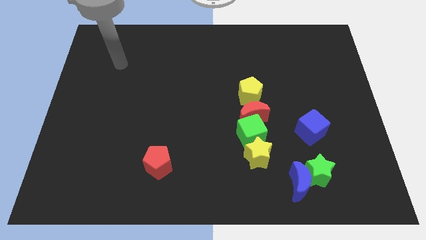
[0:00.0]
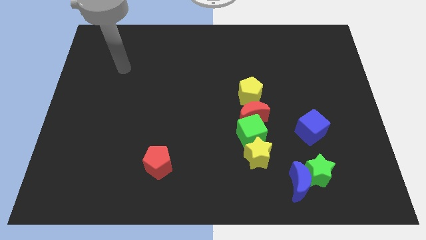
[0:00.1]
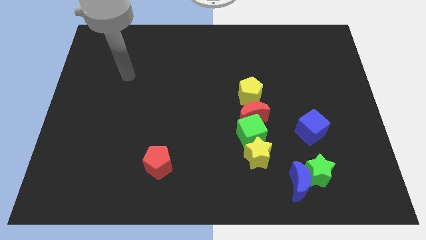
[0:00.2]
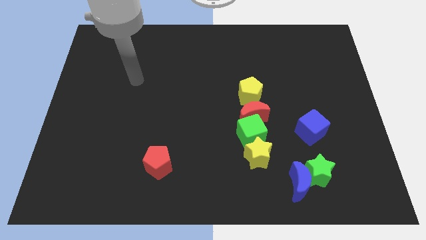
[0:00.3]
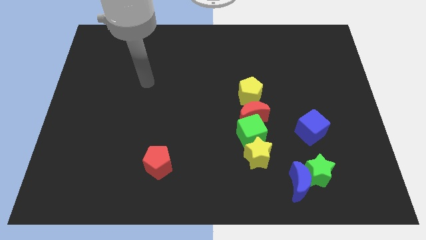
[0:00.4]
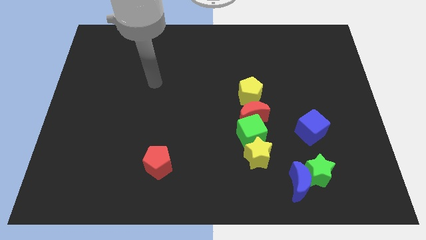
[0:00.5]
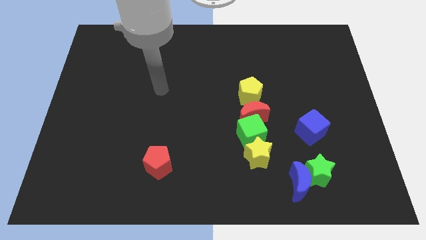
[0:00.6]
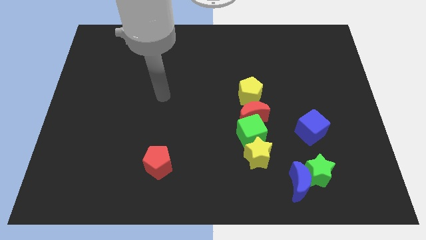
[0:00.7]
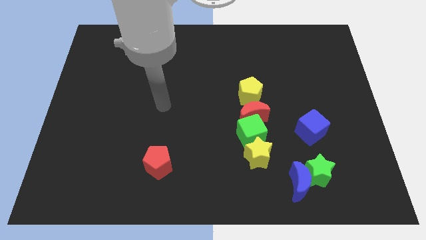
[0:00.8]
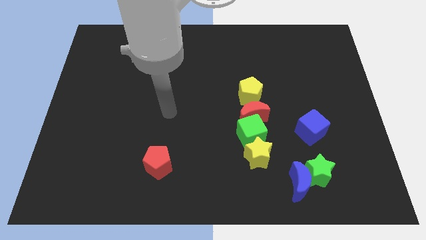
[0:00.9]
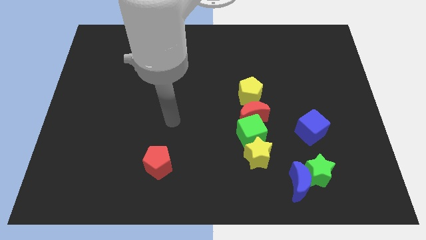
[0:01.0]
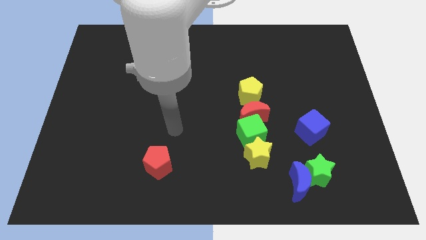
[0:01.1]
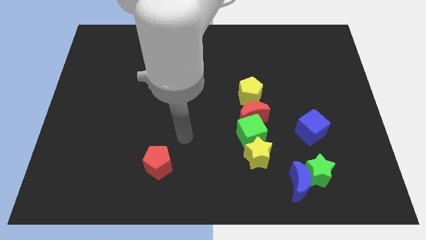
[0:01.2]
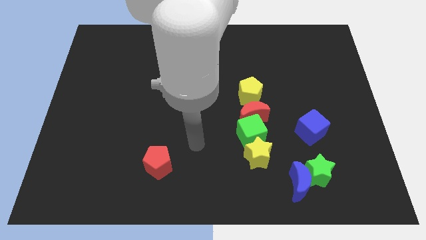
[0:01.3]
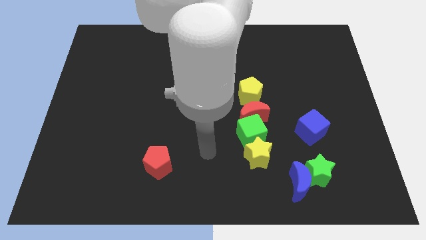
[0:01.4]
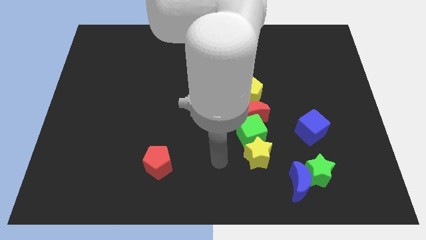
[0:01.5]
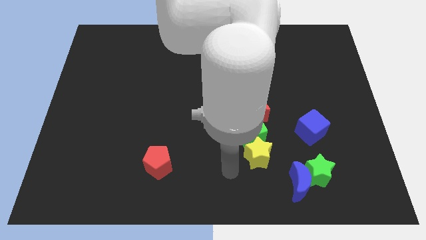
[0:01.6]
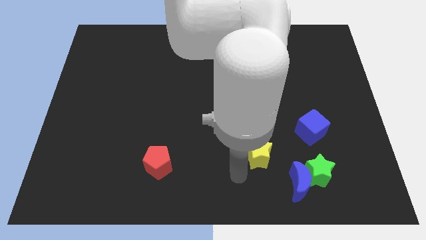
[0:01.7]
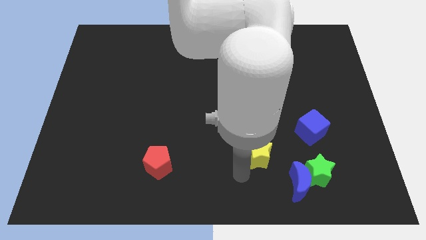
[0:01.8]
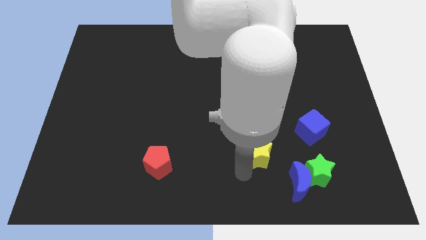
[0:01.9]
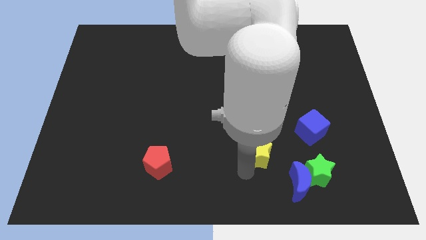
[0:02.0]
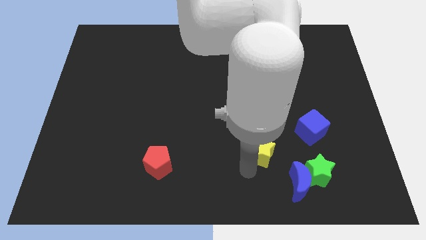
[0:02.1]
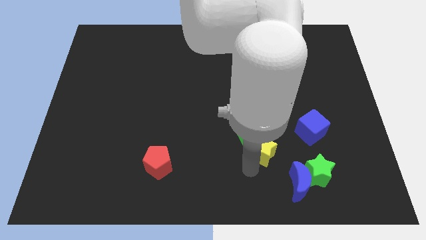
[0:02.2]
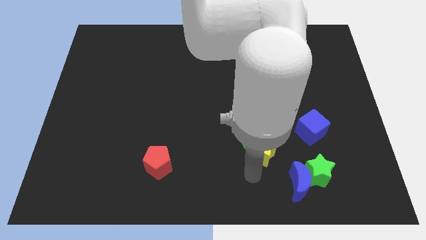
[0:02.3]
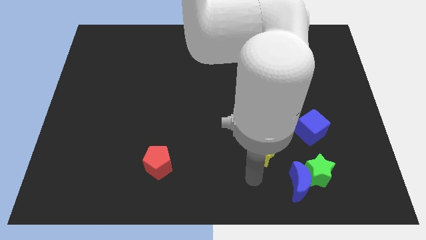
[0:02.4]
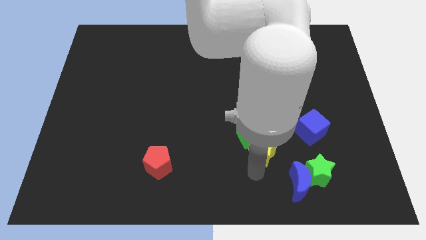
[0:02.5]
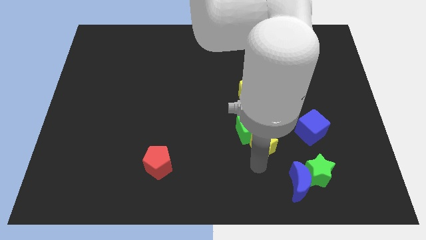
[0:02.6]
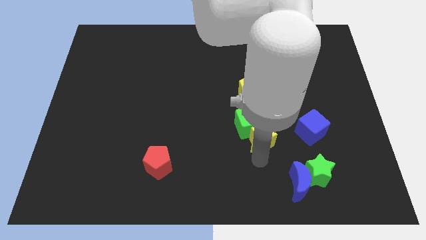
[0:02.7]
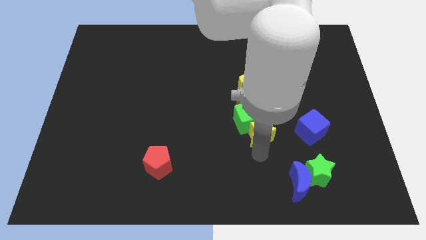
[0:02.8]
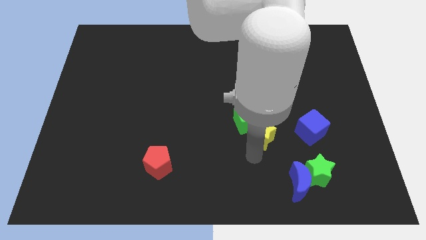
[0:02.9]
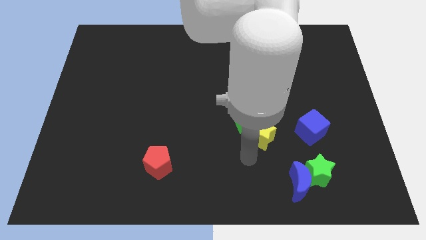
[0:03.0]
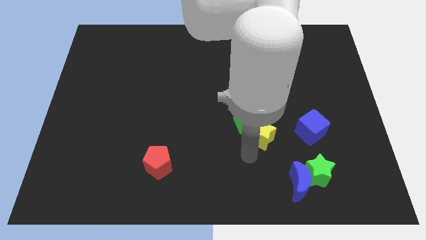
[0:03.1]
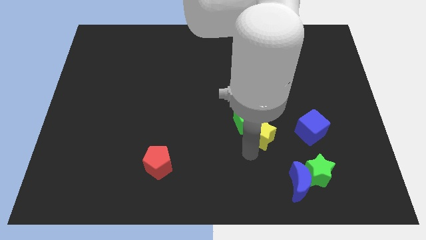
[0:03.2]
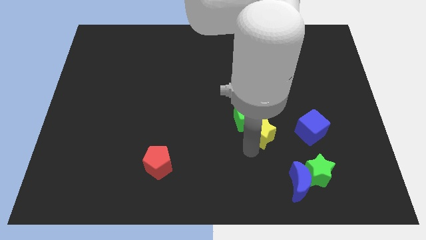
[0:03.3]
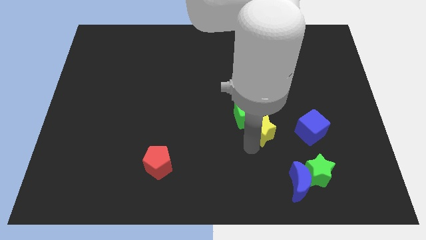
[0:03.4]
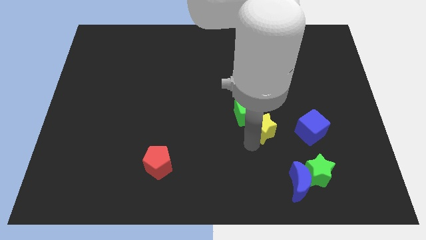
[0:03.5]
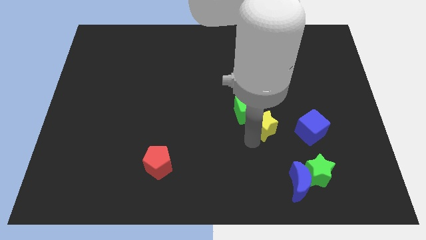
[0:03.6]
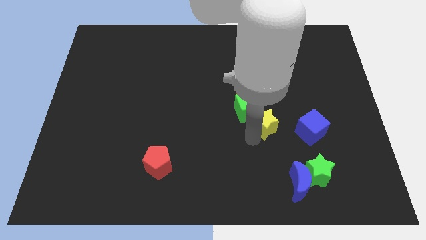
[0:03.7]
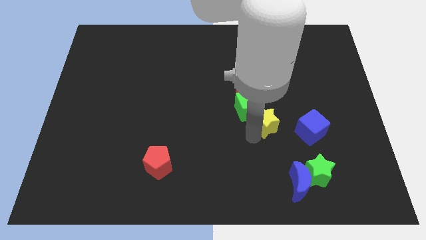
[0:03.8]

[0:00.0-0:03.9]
move the yellow star slightly up and to the right diagonally

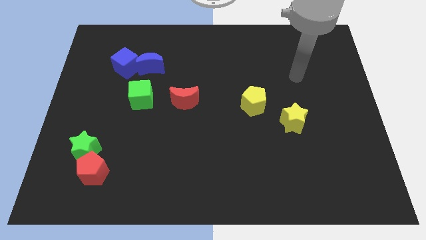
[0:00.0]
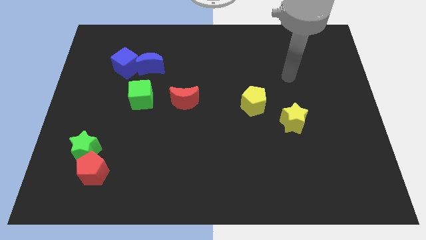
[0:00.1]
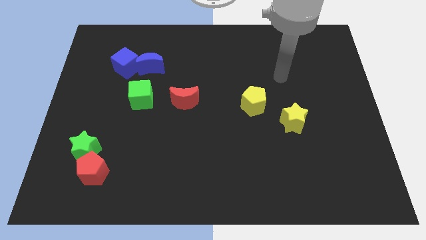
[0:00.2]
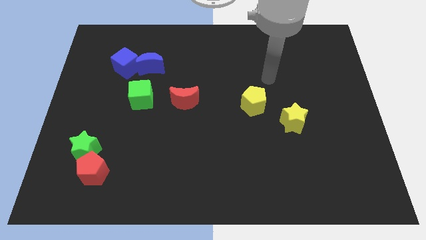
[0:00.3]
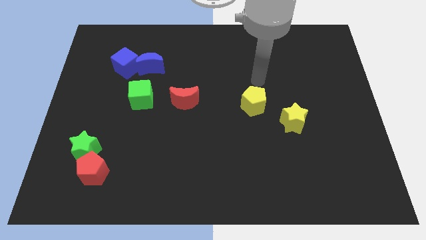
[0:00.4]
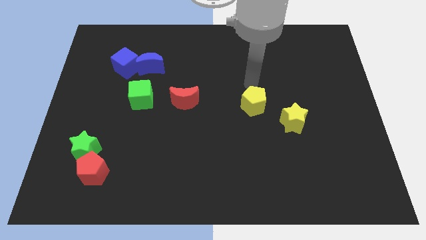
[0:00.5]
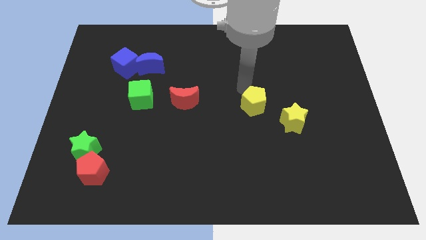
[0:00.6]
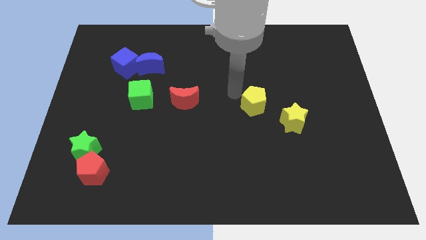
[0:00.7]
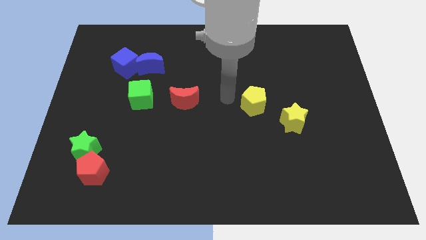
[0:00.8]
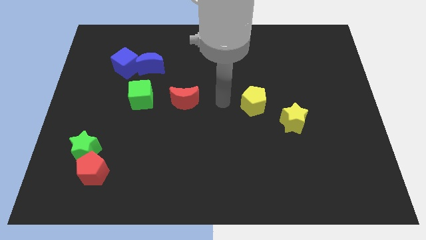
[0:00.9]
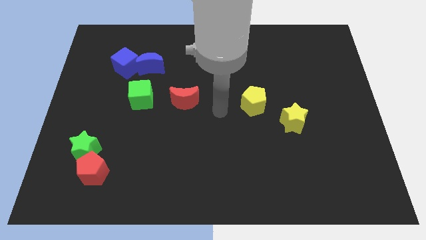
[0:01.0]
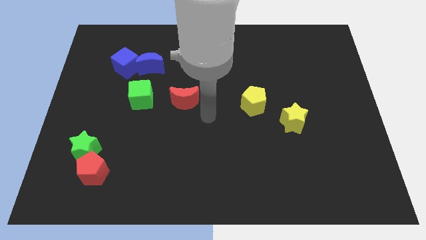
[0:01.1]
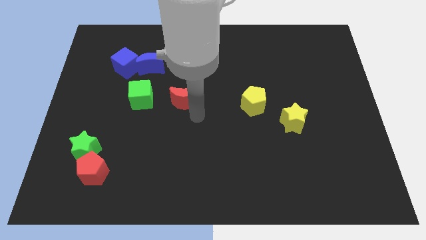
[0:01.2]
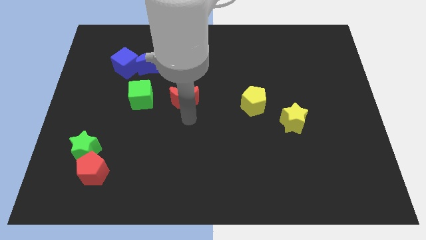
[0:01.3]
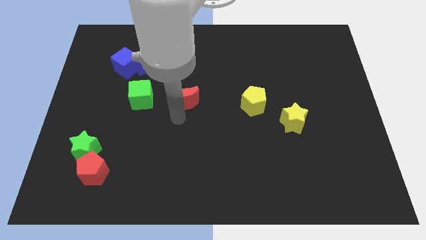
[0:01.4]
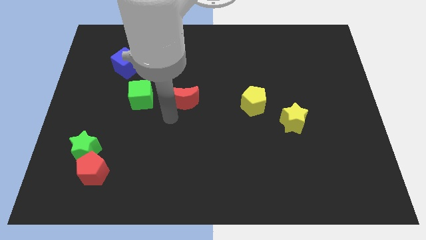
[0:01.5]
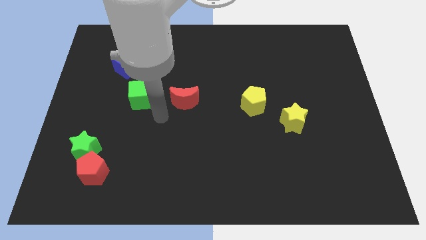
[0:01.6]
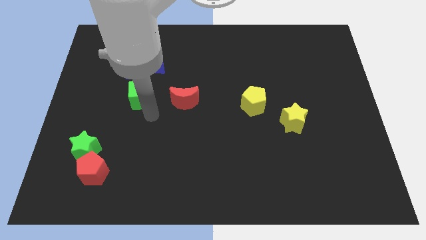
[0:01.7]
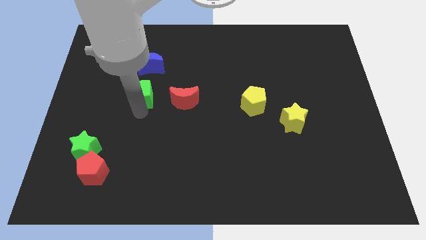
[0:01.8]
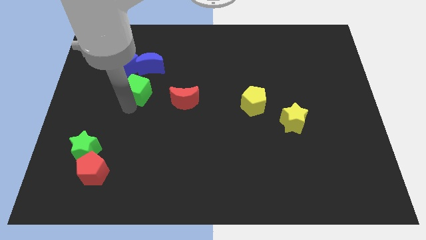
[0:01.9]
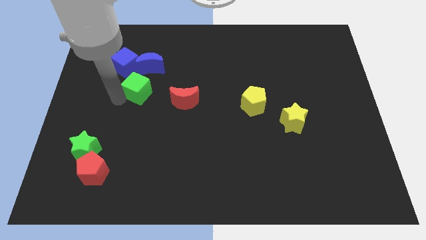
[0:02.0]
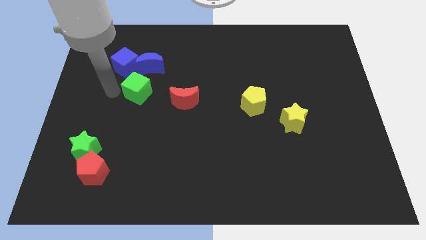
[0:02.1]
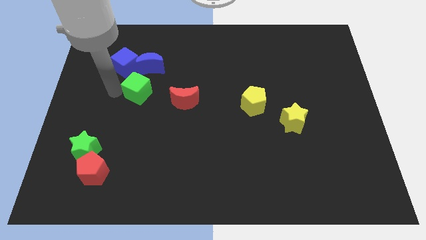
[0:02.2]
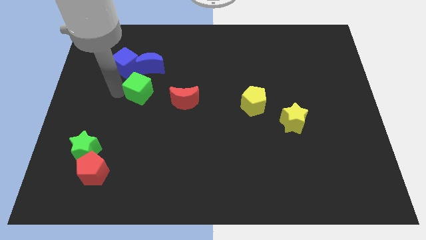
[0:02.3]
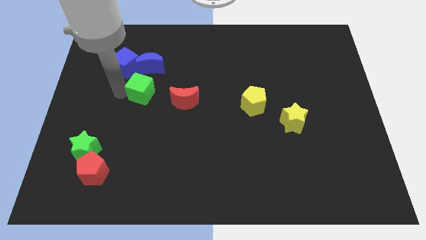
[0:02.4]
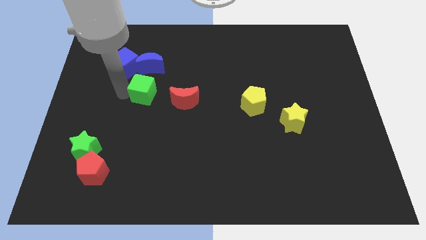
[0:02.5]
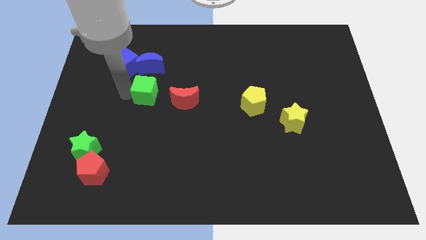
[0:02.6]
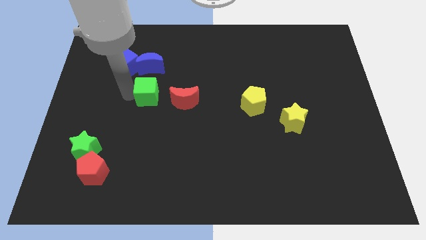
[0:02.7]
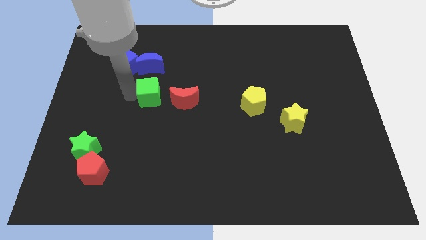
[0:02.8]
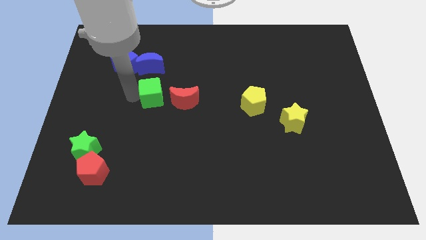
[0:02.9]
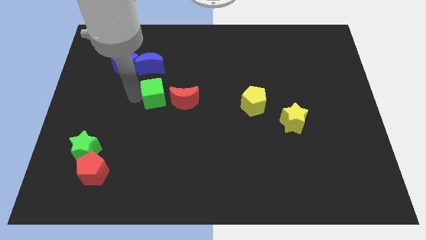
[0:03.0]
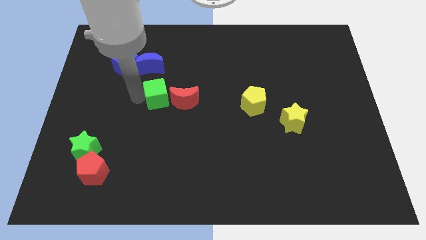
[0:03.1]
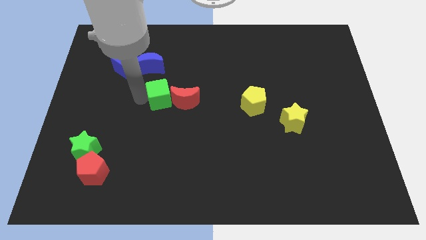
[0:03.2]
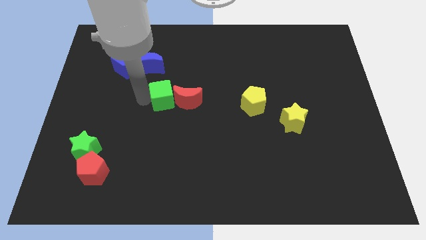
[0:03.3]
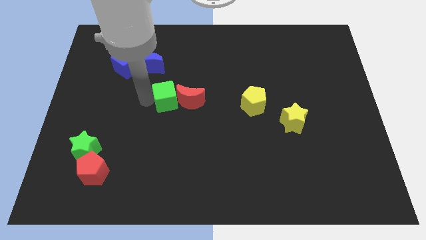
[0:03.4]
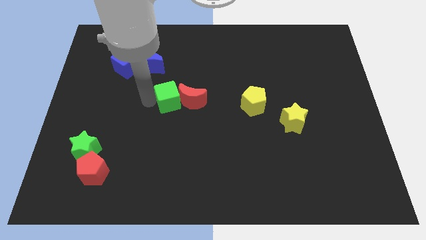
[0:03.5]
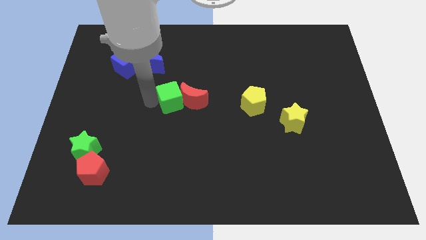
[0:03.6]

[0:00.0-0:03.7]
push the green cube a bit right

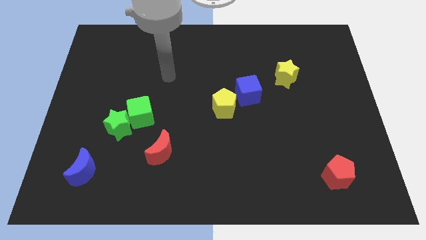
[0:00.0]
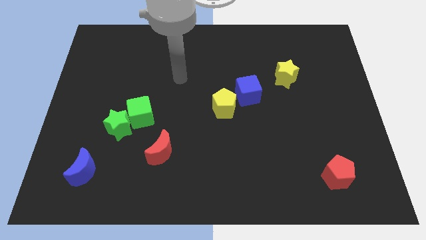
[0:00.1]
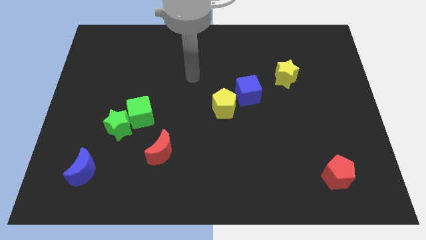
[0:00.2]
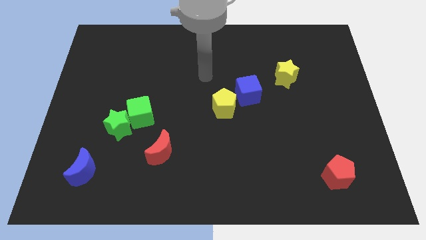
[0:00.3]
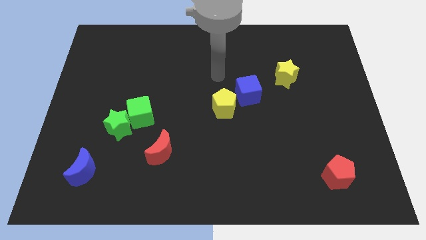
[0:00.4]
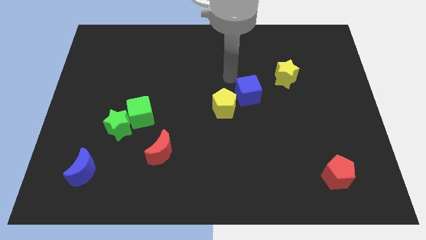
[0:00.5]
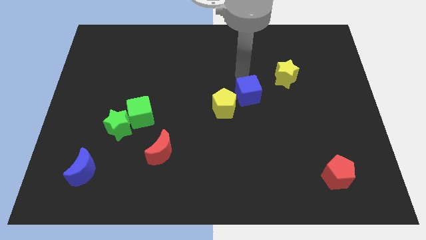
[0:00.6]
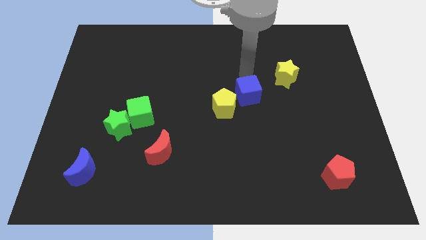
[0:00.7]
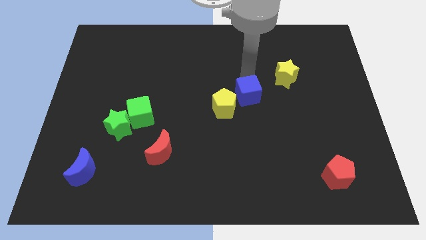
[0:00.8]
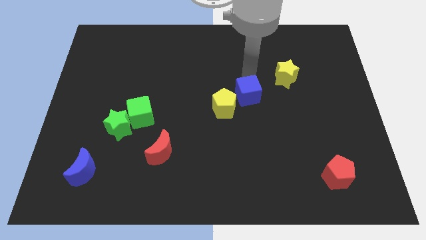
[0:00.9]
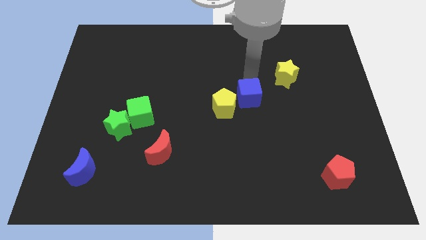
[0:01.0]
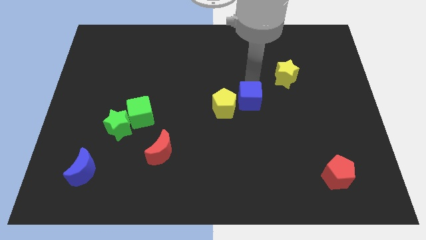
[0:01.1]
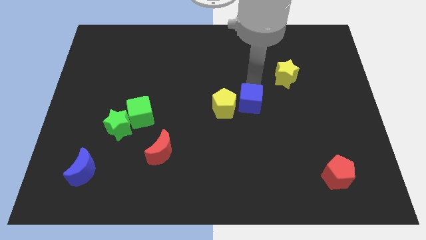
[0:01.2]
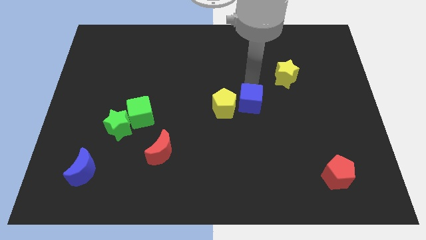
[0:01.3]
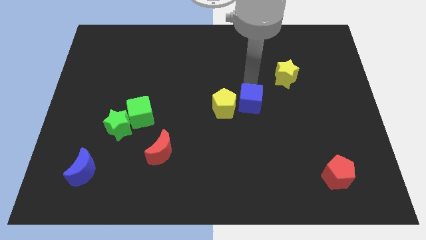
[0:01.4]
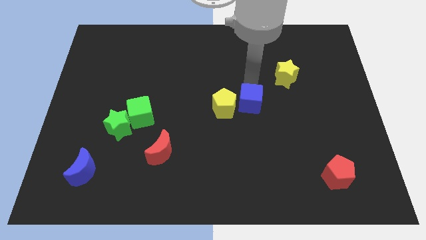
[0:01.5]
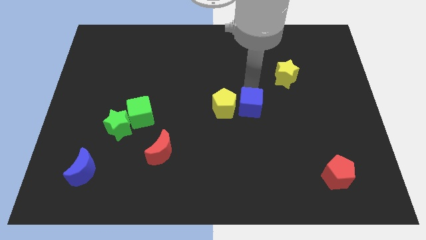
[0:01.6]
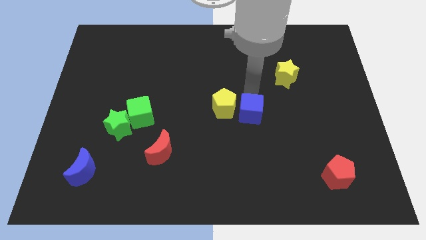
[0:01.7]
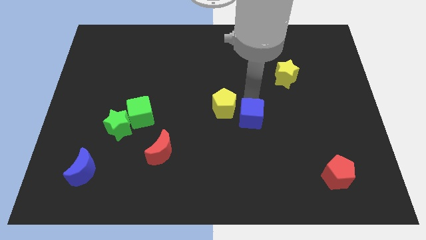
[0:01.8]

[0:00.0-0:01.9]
slightly move the blue cube down
